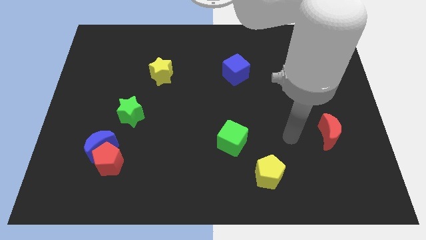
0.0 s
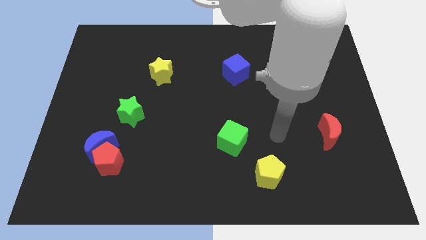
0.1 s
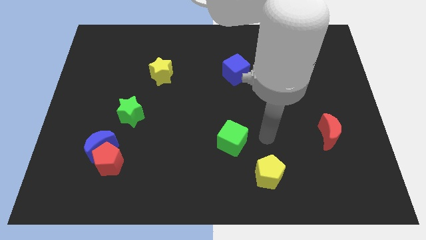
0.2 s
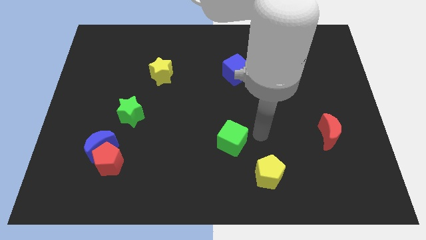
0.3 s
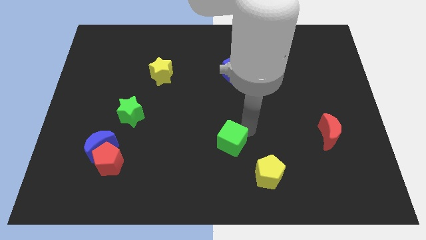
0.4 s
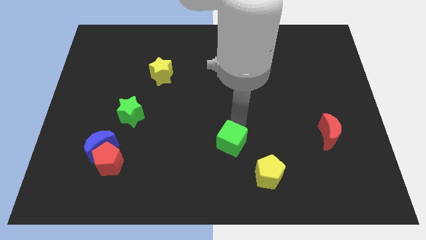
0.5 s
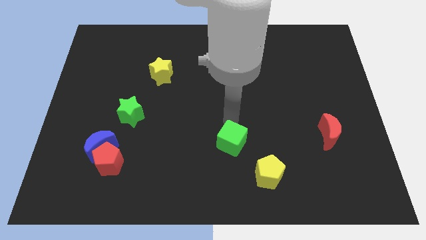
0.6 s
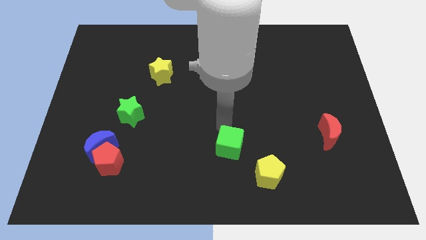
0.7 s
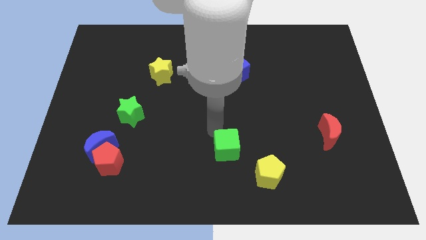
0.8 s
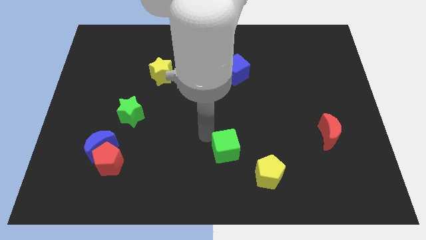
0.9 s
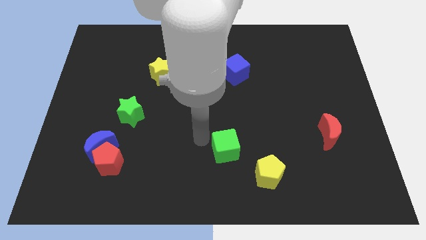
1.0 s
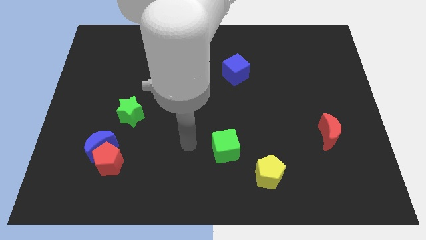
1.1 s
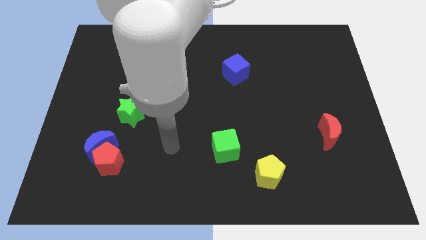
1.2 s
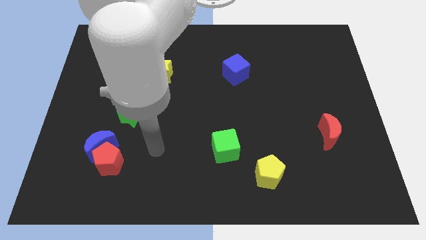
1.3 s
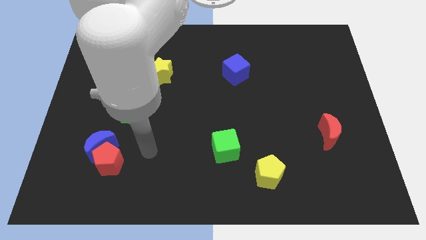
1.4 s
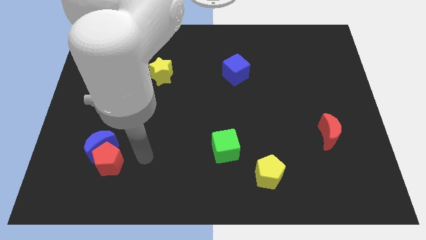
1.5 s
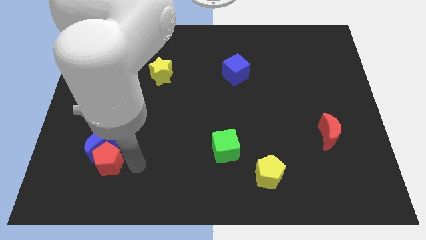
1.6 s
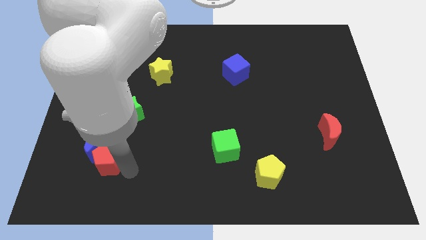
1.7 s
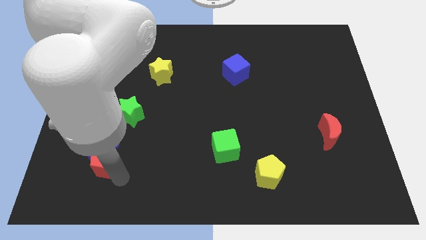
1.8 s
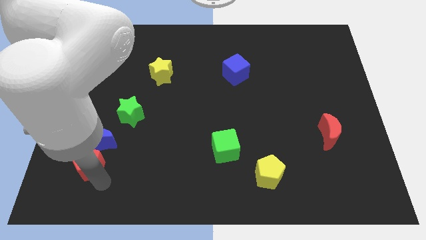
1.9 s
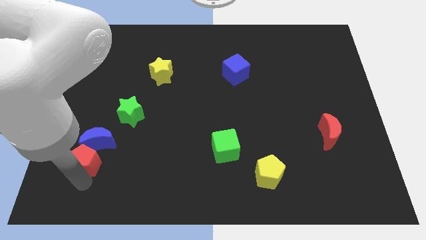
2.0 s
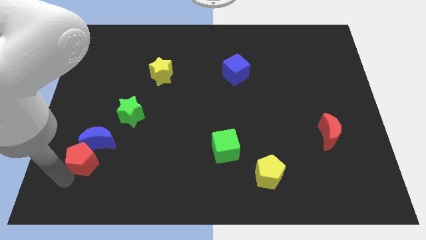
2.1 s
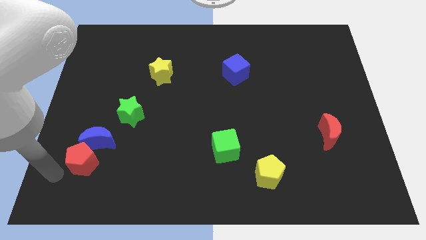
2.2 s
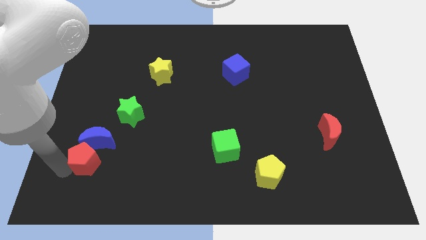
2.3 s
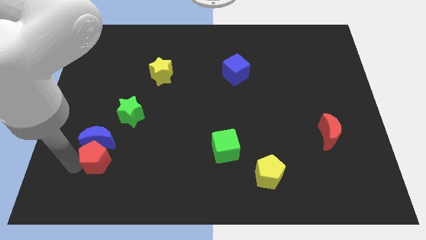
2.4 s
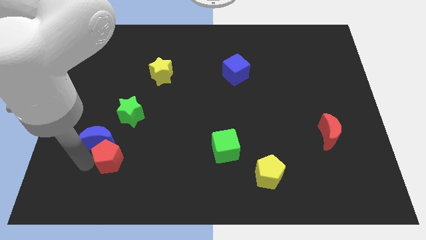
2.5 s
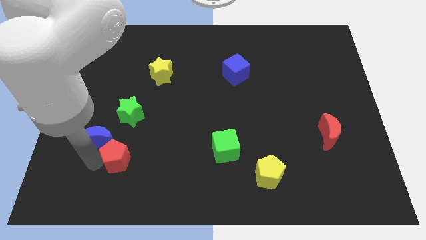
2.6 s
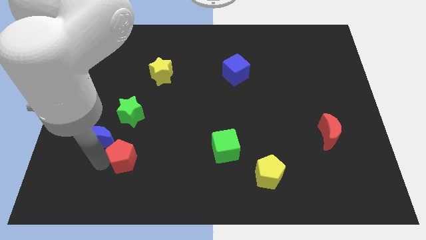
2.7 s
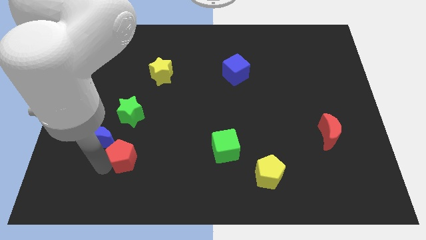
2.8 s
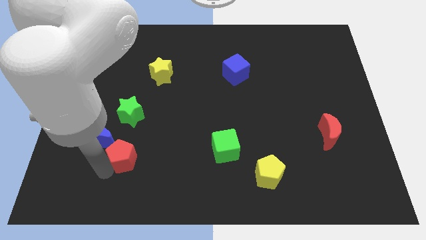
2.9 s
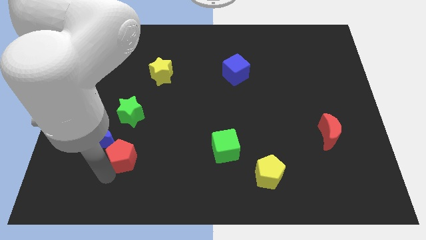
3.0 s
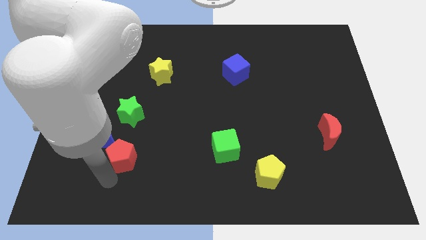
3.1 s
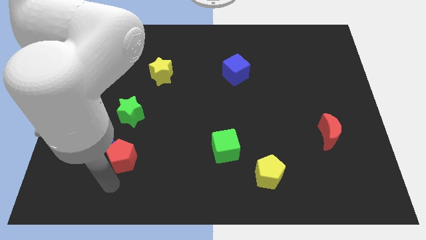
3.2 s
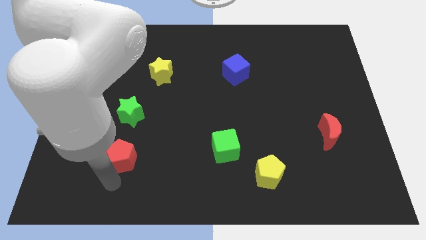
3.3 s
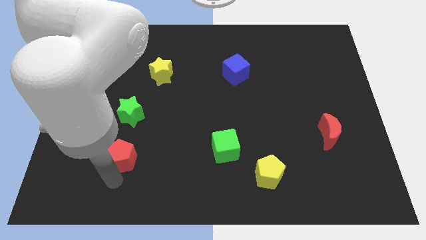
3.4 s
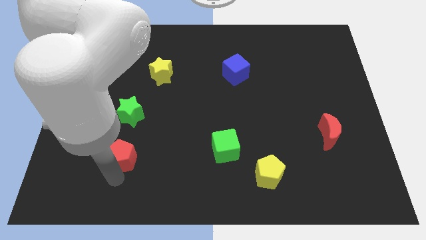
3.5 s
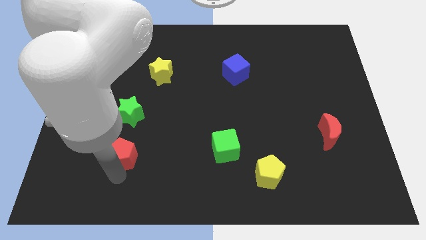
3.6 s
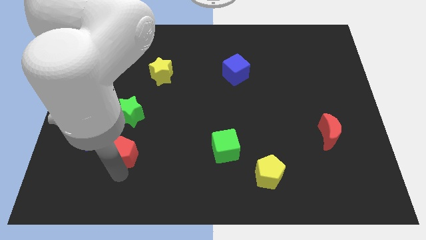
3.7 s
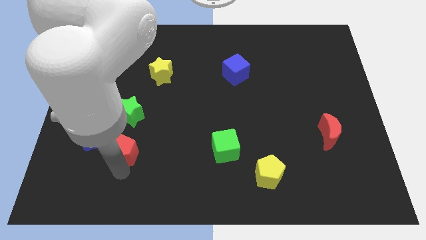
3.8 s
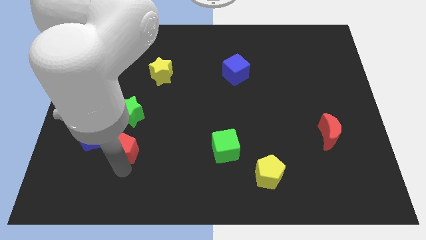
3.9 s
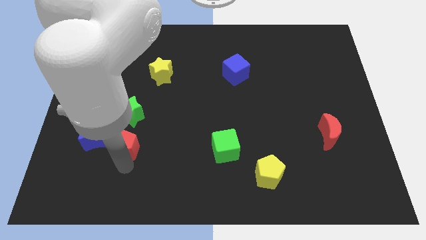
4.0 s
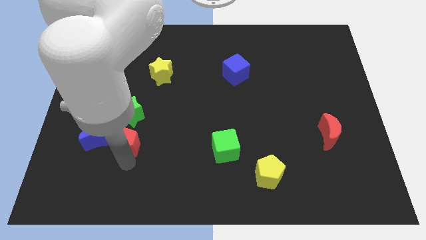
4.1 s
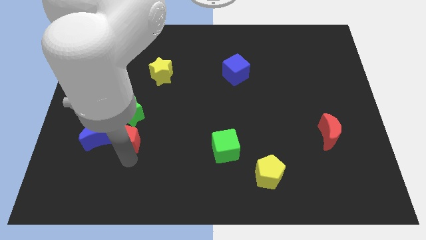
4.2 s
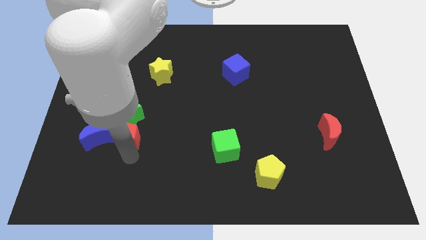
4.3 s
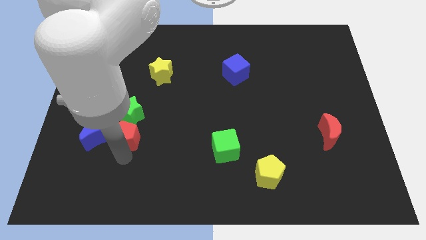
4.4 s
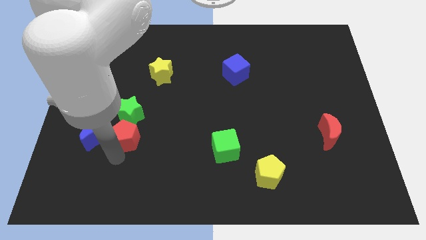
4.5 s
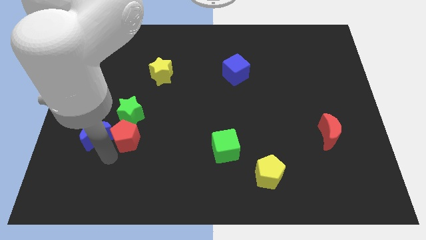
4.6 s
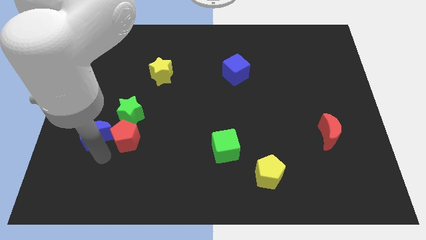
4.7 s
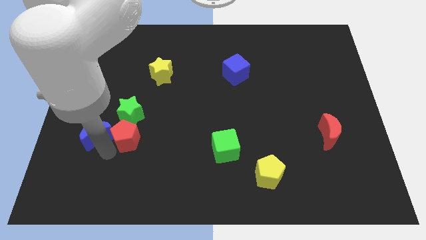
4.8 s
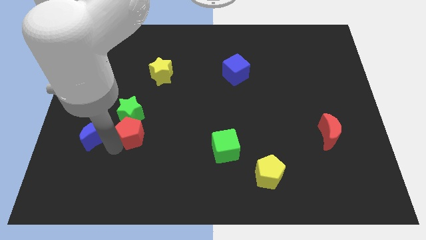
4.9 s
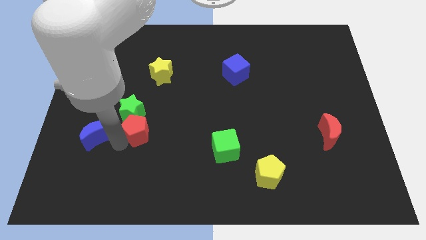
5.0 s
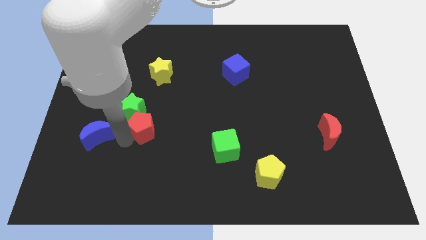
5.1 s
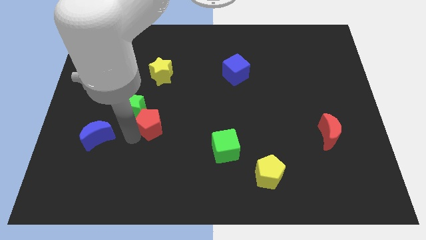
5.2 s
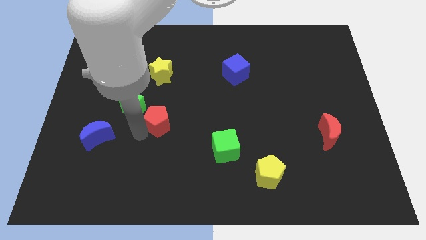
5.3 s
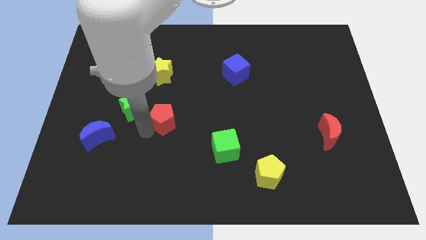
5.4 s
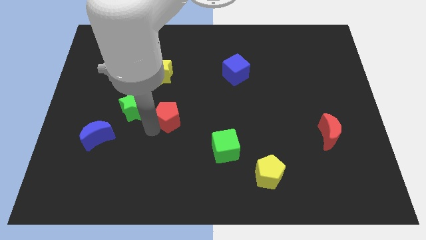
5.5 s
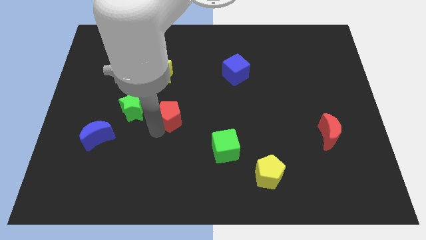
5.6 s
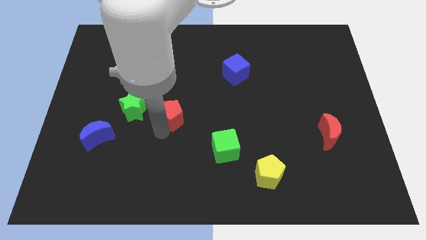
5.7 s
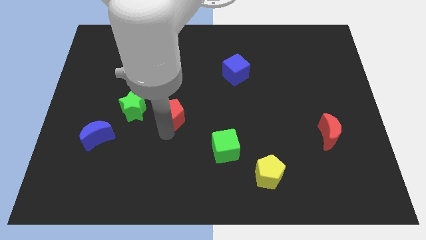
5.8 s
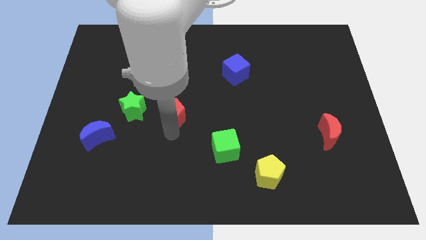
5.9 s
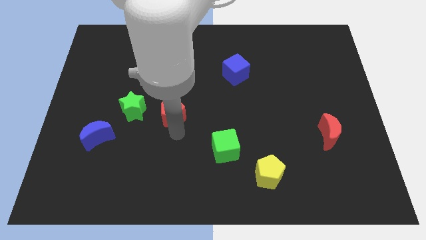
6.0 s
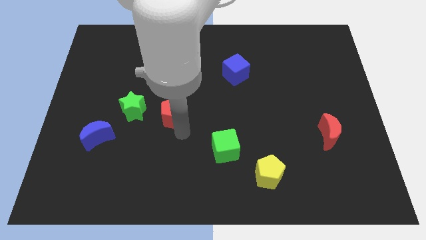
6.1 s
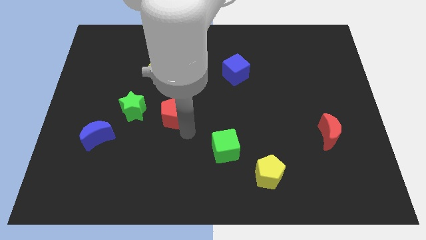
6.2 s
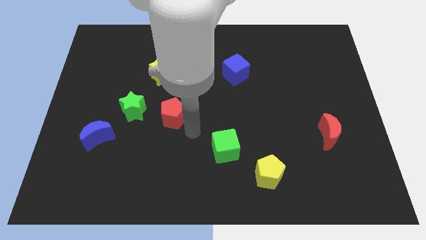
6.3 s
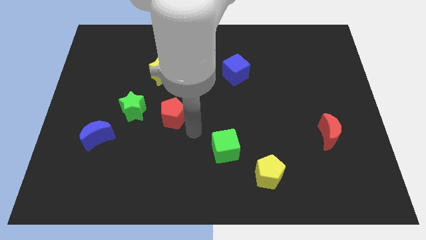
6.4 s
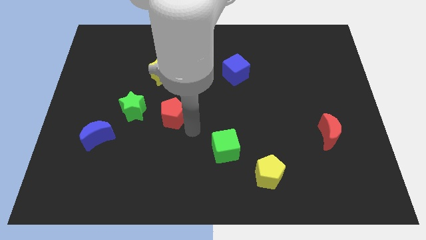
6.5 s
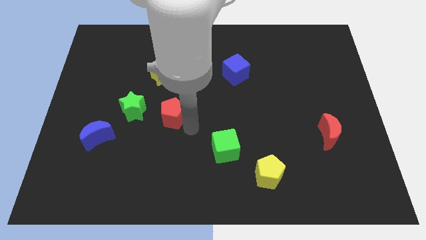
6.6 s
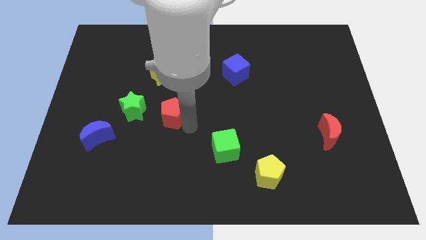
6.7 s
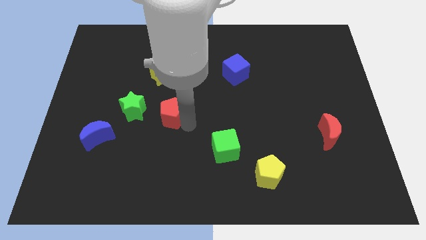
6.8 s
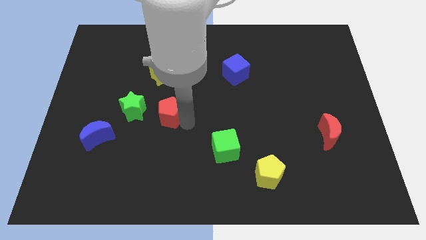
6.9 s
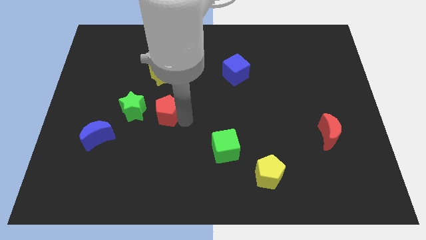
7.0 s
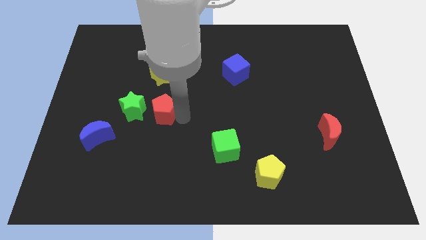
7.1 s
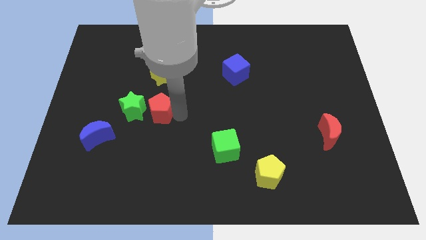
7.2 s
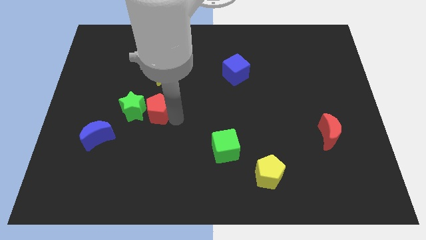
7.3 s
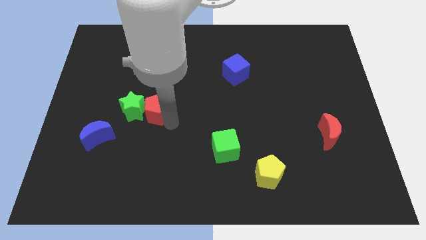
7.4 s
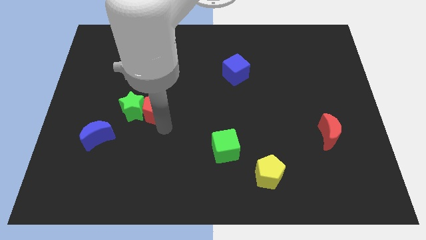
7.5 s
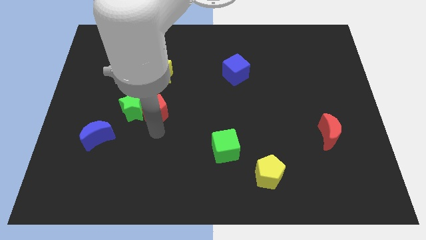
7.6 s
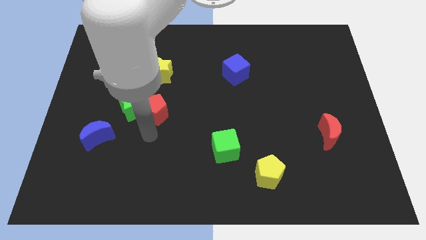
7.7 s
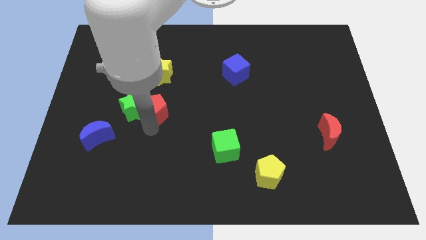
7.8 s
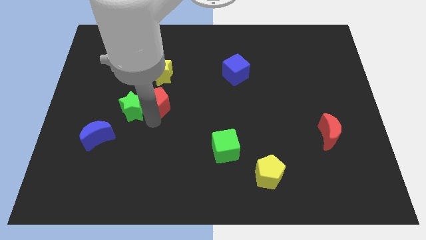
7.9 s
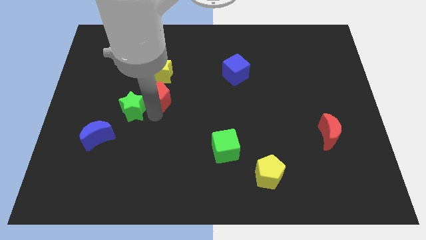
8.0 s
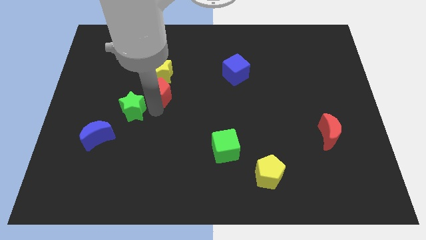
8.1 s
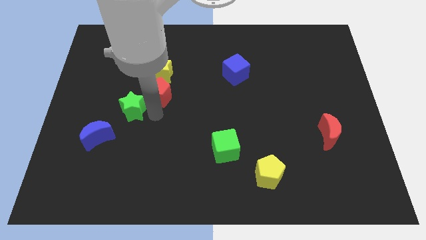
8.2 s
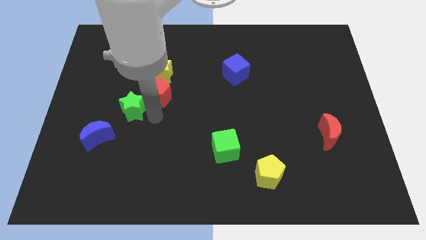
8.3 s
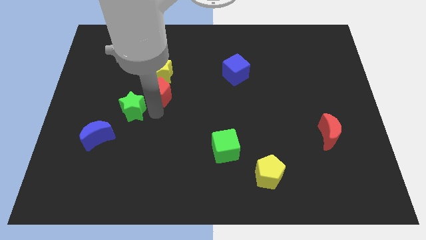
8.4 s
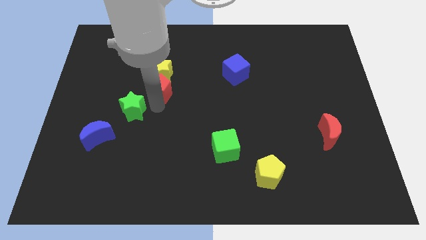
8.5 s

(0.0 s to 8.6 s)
slide the red pentagon close to the yellow star
